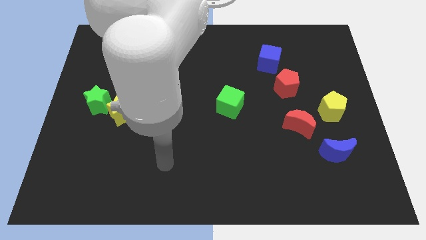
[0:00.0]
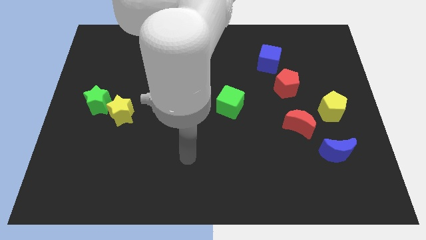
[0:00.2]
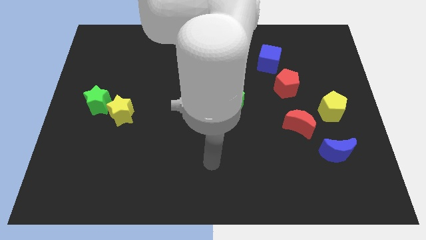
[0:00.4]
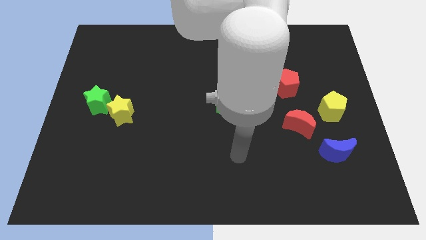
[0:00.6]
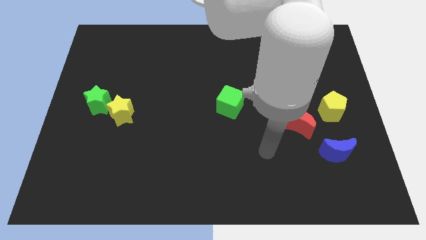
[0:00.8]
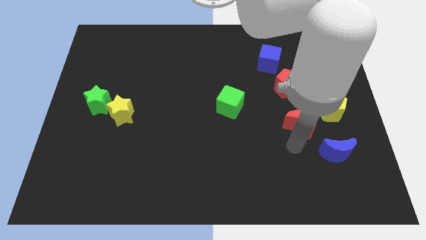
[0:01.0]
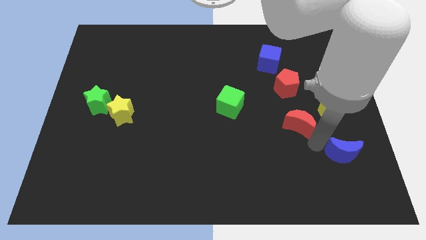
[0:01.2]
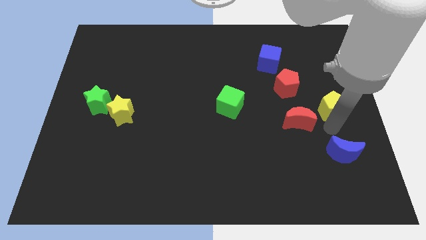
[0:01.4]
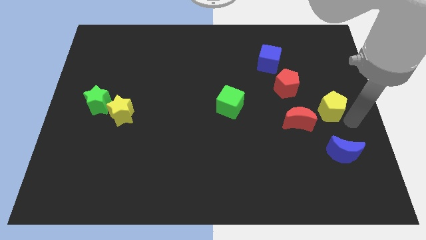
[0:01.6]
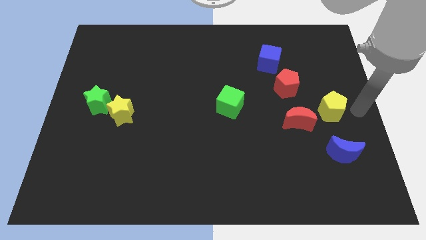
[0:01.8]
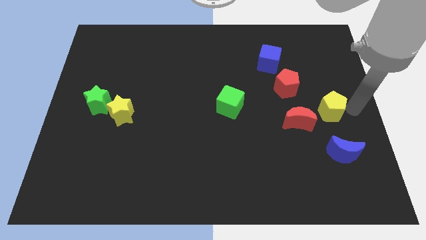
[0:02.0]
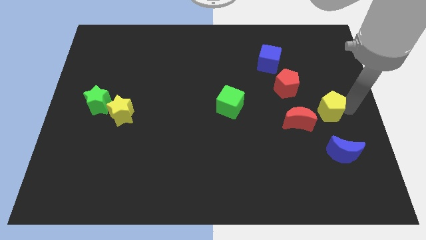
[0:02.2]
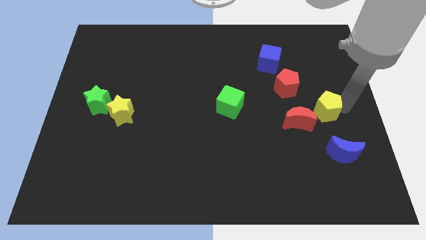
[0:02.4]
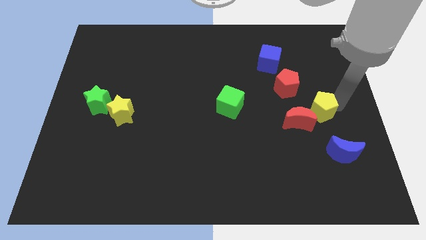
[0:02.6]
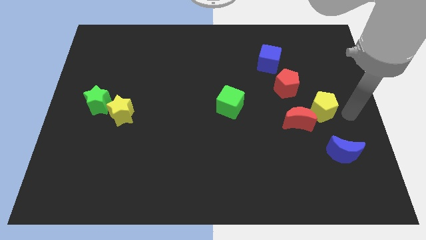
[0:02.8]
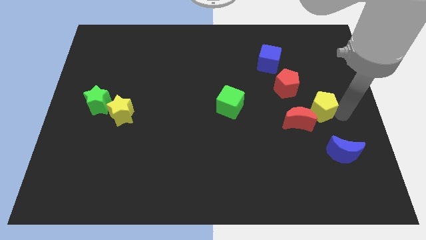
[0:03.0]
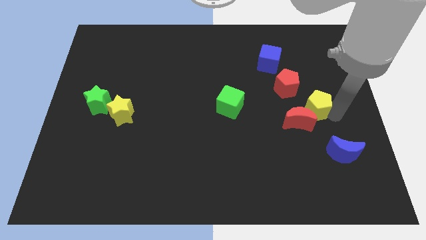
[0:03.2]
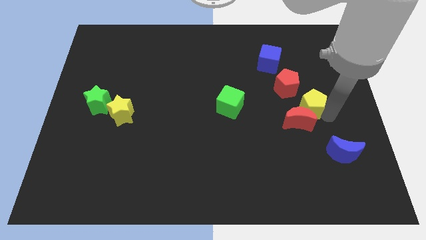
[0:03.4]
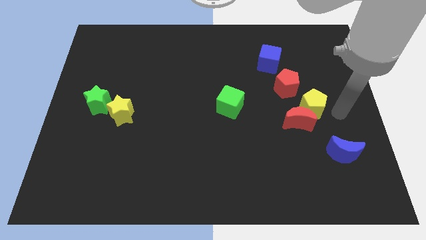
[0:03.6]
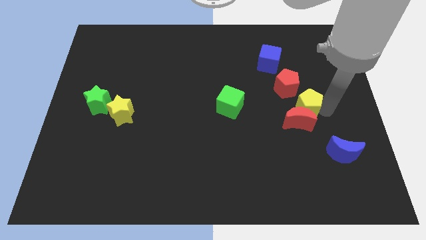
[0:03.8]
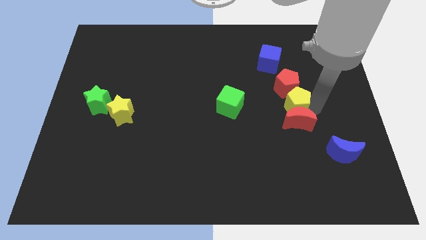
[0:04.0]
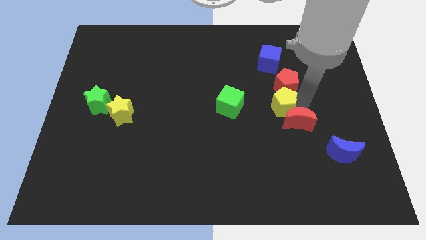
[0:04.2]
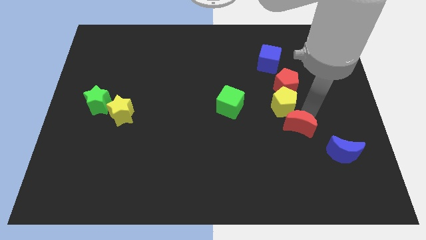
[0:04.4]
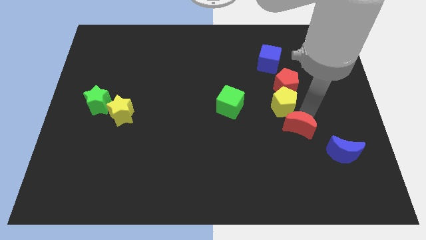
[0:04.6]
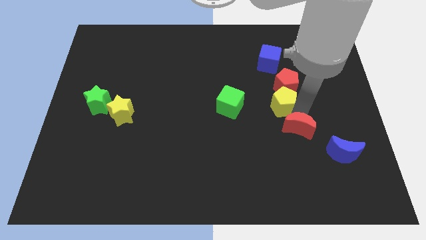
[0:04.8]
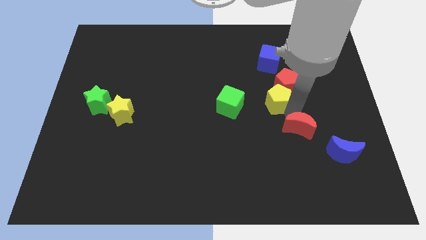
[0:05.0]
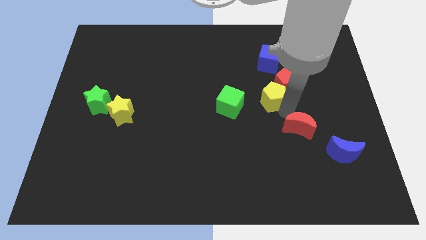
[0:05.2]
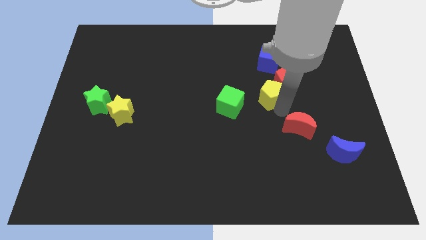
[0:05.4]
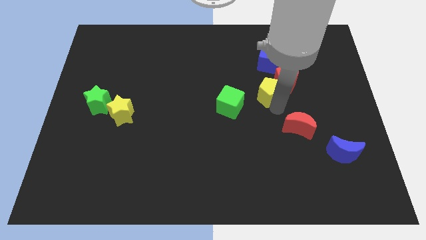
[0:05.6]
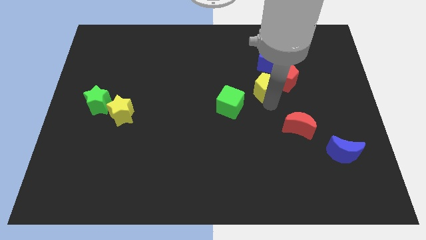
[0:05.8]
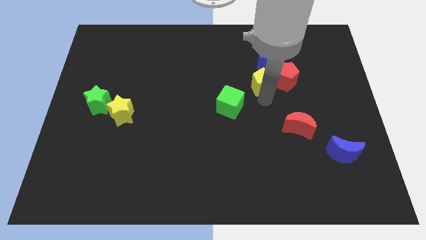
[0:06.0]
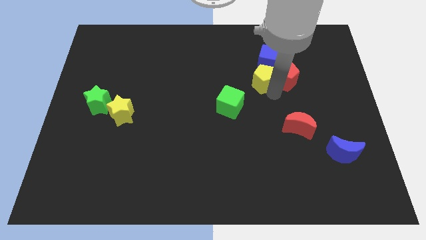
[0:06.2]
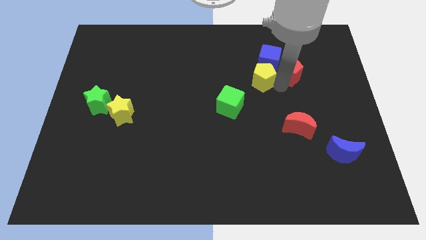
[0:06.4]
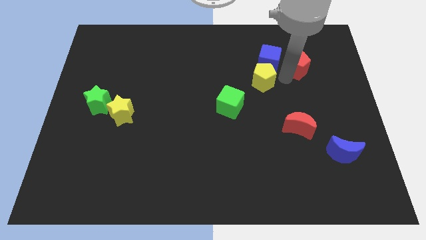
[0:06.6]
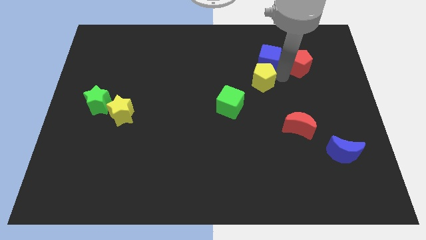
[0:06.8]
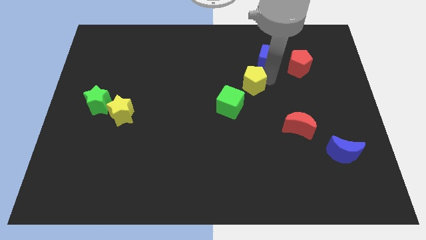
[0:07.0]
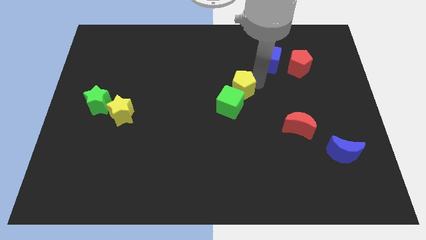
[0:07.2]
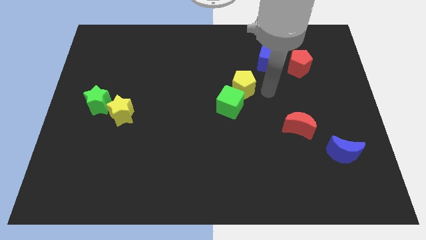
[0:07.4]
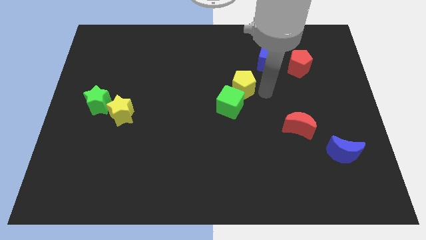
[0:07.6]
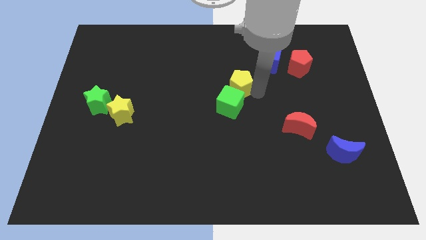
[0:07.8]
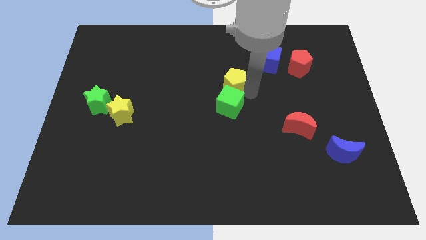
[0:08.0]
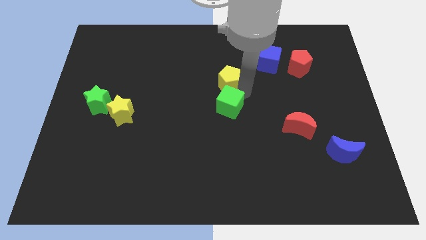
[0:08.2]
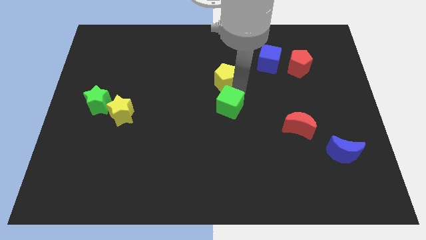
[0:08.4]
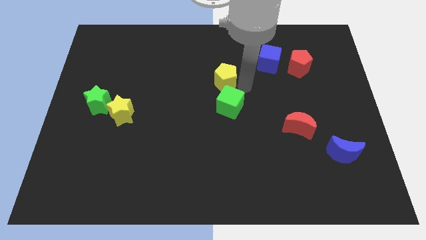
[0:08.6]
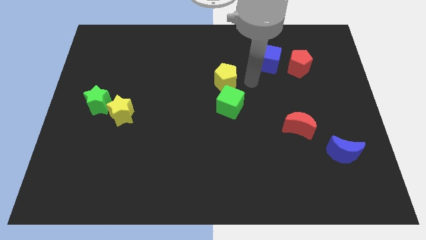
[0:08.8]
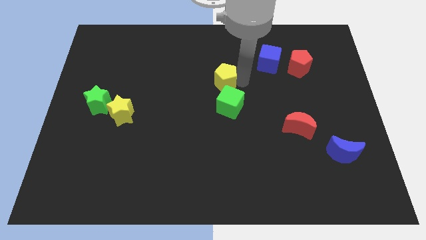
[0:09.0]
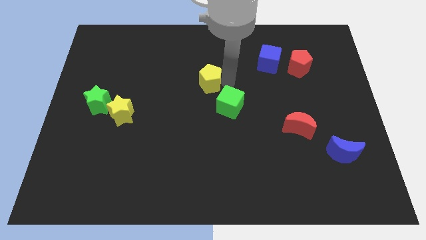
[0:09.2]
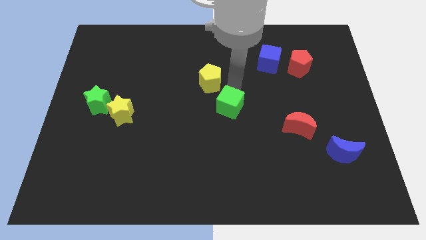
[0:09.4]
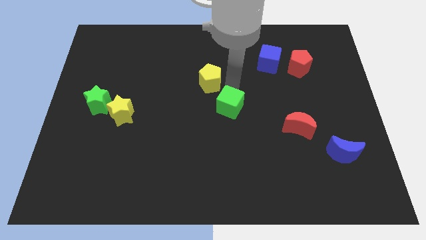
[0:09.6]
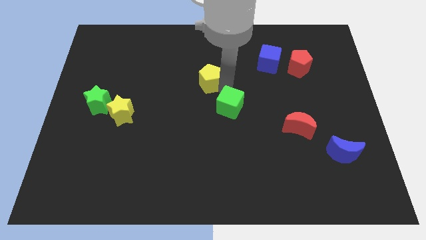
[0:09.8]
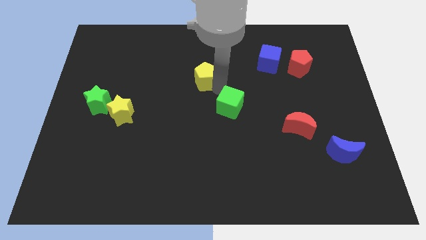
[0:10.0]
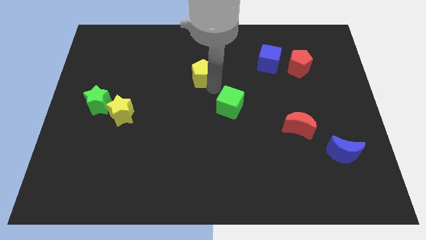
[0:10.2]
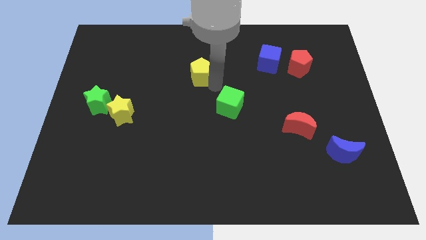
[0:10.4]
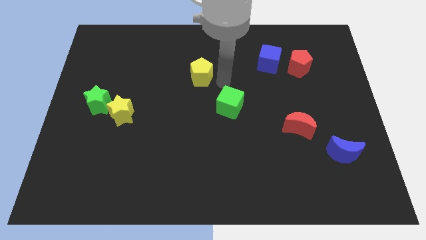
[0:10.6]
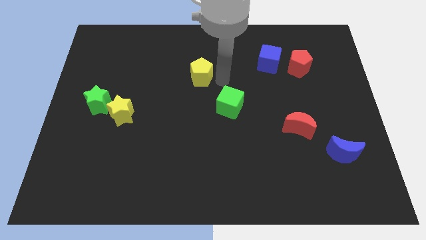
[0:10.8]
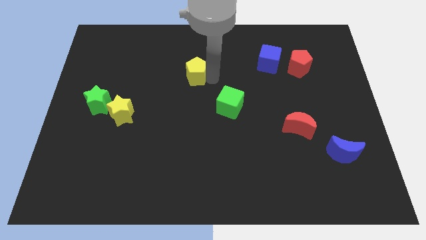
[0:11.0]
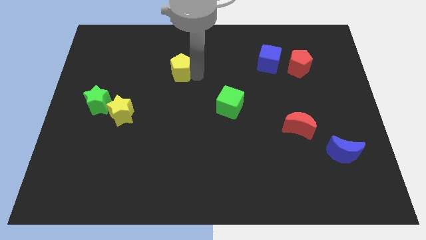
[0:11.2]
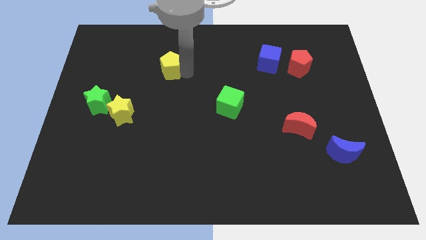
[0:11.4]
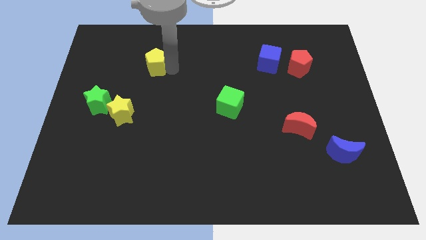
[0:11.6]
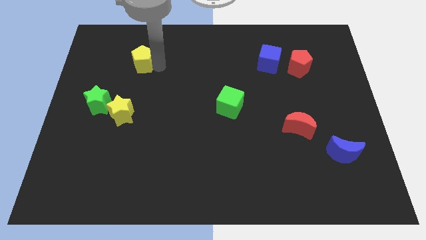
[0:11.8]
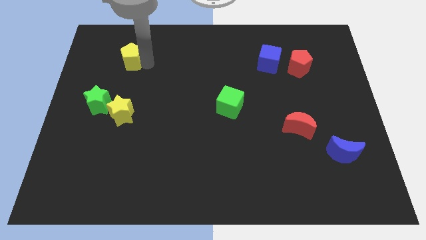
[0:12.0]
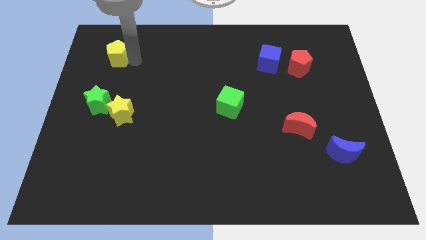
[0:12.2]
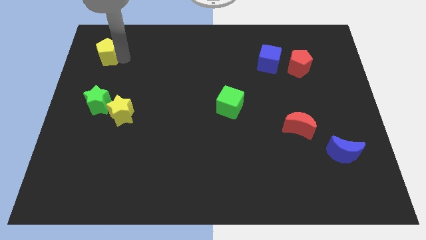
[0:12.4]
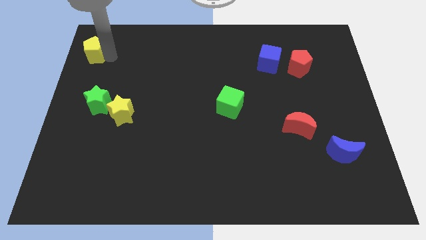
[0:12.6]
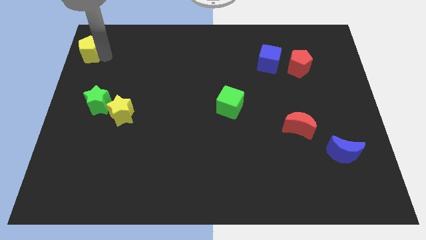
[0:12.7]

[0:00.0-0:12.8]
put the yellow pentagon to the top left

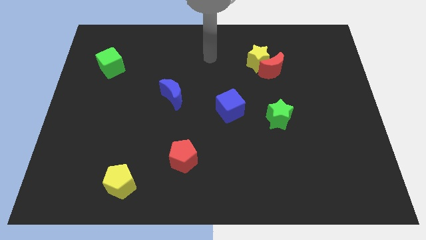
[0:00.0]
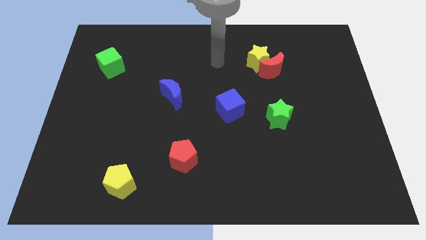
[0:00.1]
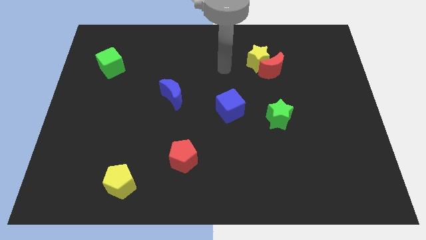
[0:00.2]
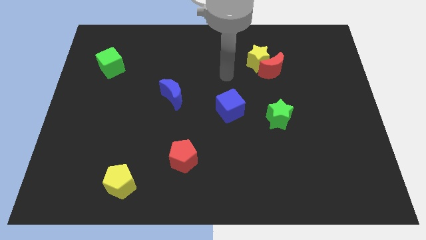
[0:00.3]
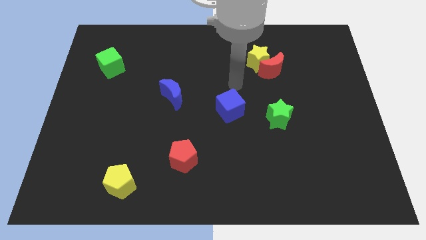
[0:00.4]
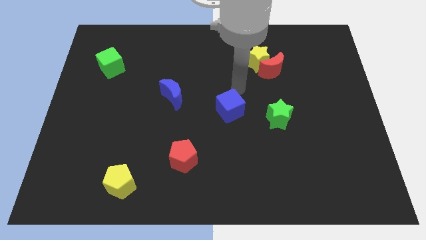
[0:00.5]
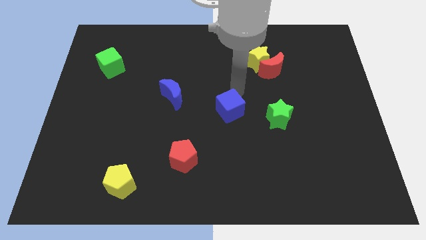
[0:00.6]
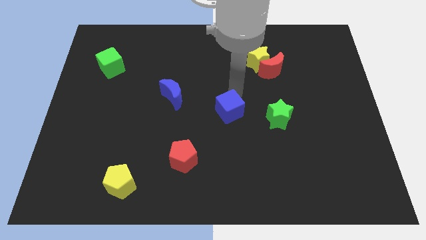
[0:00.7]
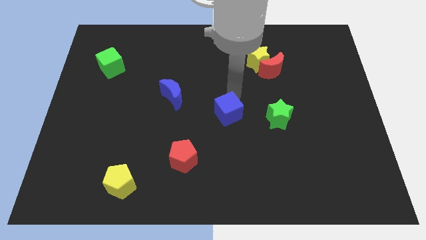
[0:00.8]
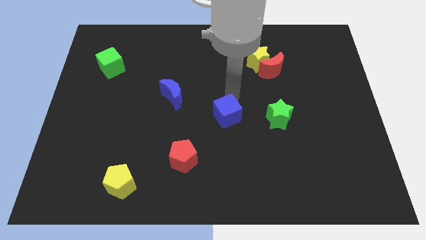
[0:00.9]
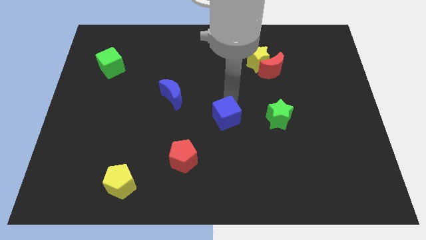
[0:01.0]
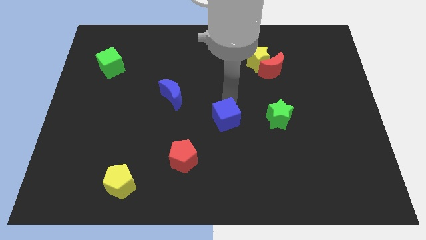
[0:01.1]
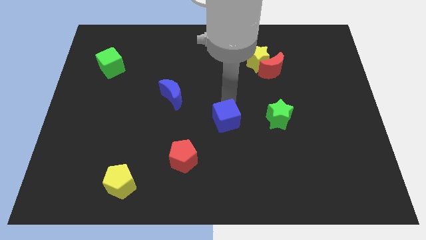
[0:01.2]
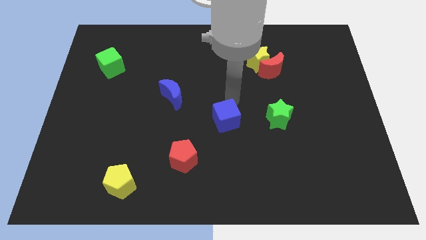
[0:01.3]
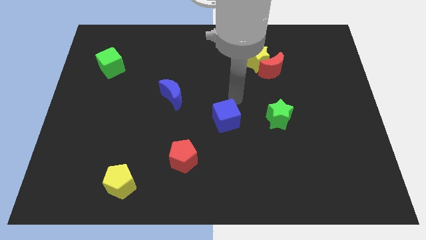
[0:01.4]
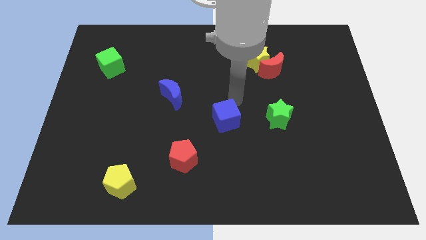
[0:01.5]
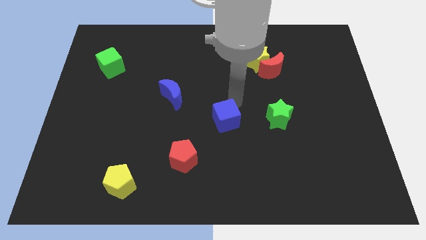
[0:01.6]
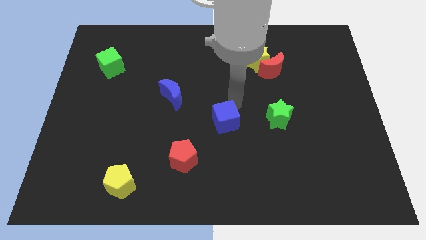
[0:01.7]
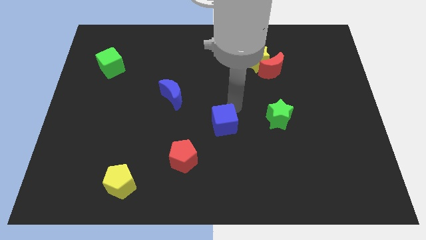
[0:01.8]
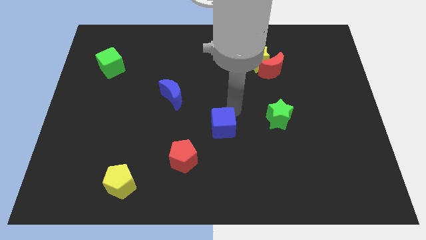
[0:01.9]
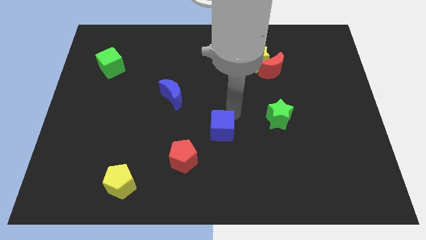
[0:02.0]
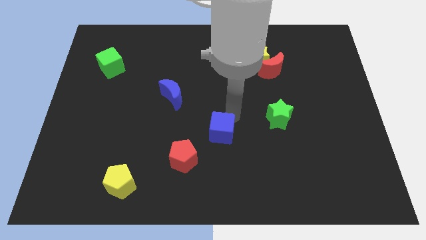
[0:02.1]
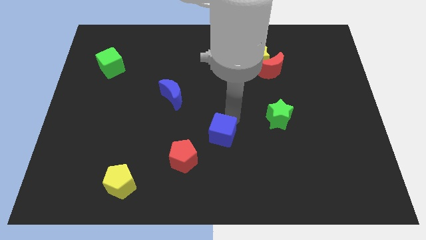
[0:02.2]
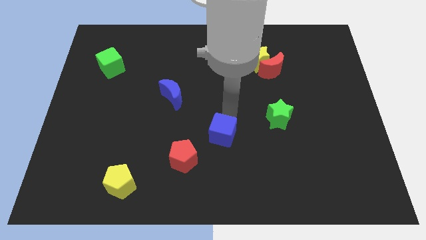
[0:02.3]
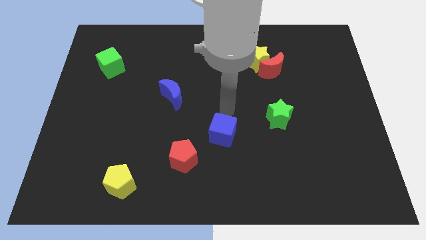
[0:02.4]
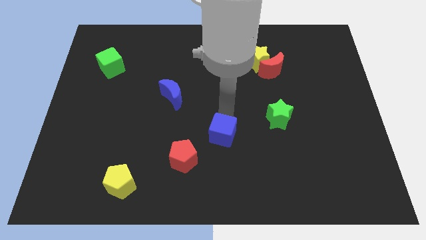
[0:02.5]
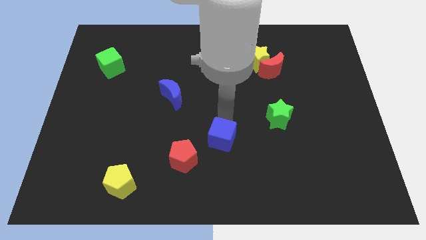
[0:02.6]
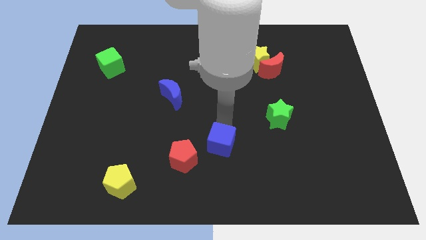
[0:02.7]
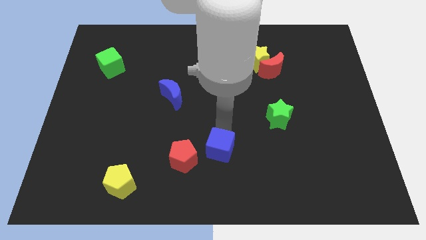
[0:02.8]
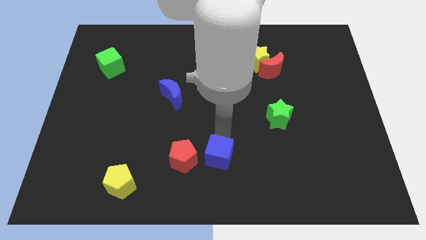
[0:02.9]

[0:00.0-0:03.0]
slide the blue cube to the bottom
